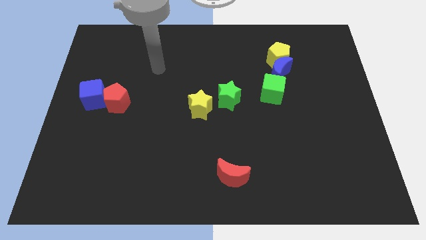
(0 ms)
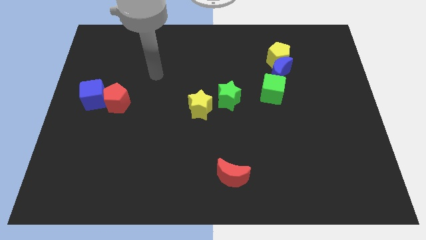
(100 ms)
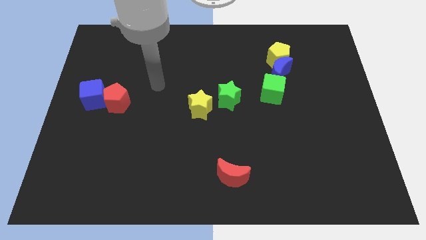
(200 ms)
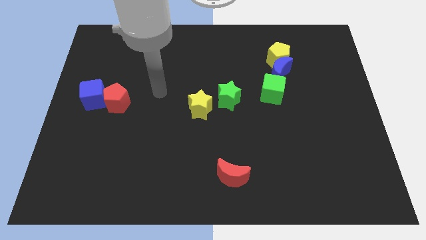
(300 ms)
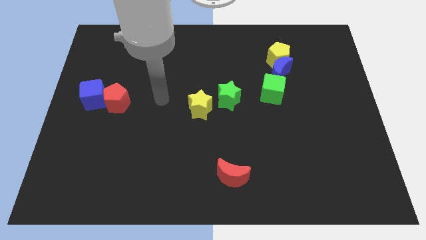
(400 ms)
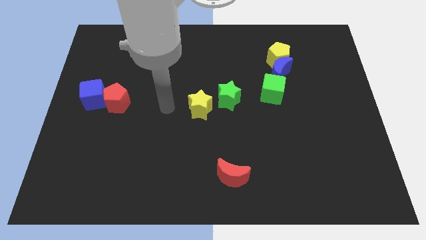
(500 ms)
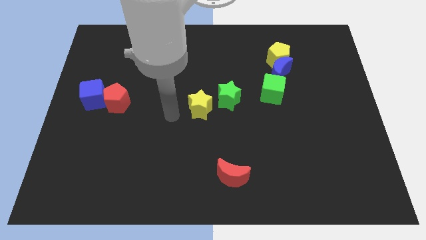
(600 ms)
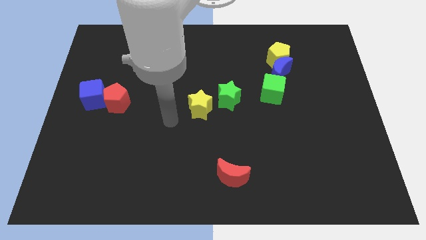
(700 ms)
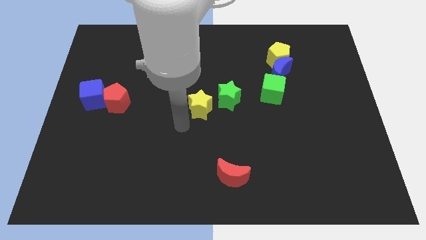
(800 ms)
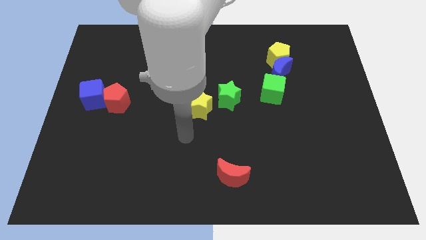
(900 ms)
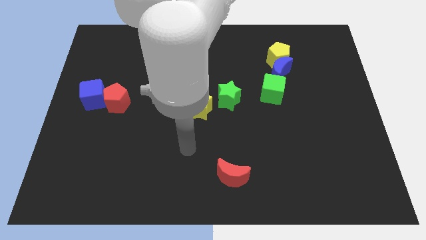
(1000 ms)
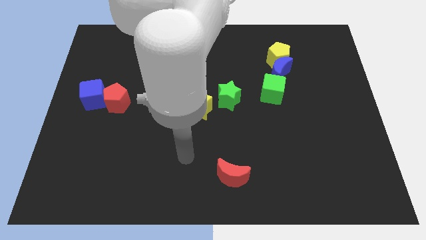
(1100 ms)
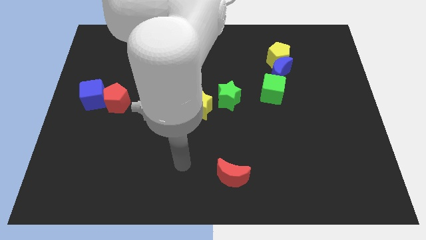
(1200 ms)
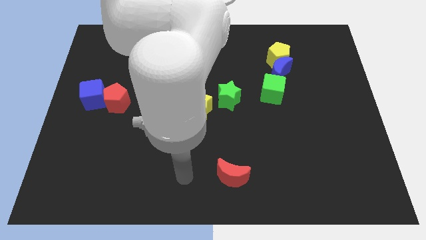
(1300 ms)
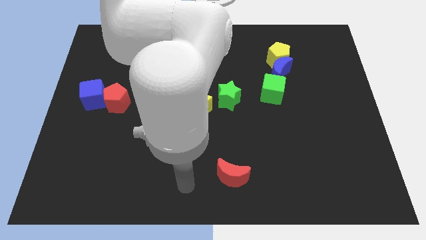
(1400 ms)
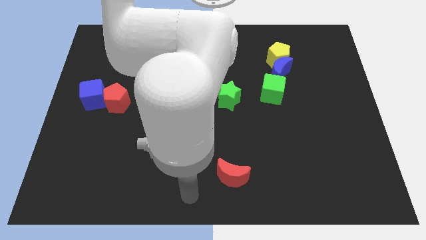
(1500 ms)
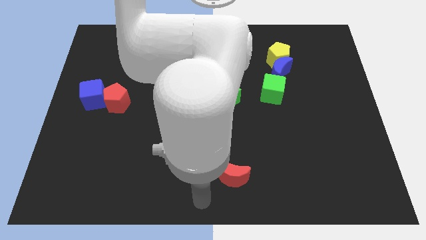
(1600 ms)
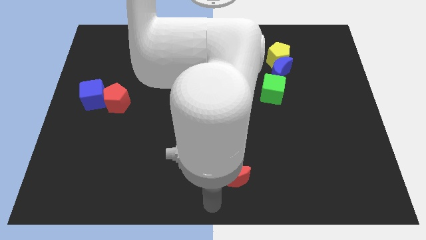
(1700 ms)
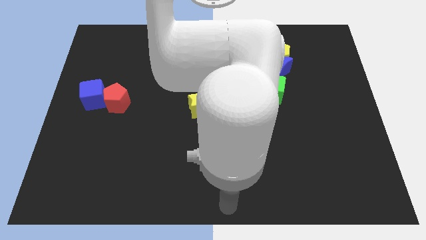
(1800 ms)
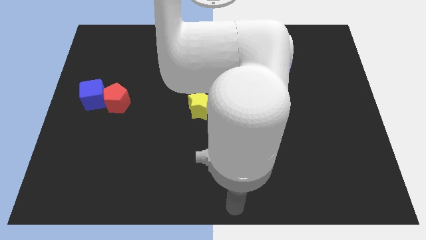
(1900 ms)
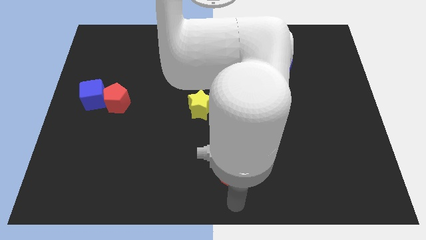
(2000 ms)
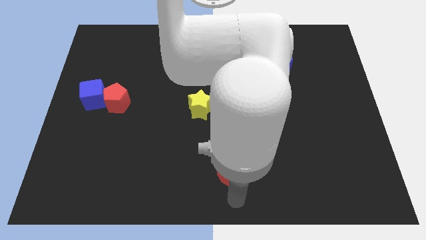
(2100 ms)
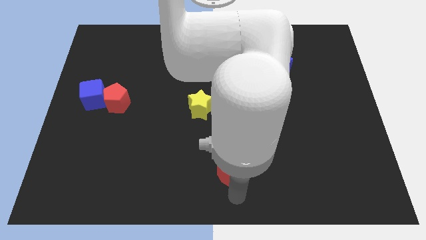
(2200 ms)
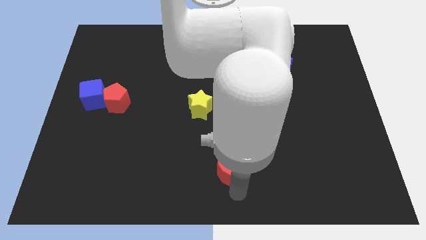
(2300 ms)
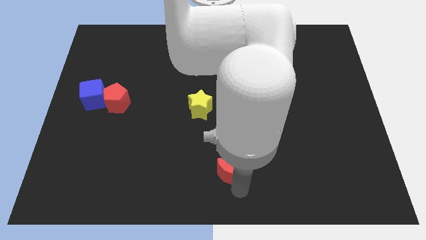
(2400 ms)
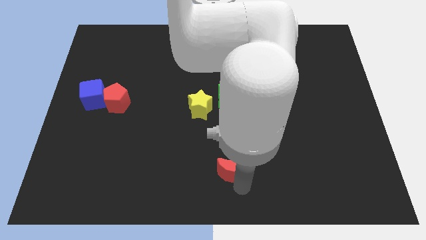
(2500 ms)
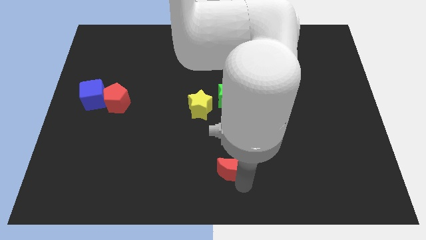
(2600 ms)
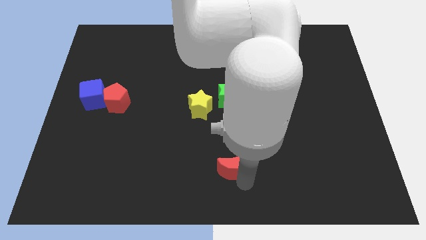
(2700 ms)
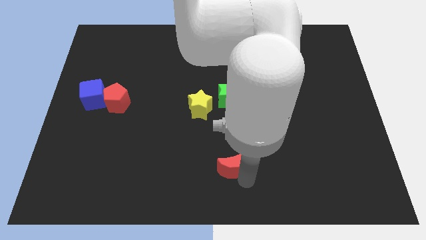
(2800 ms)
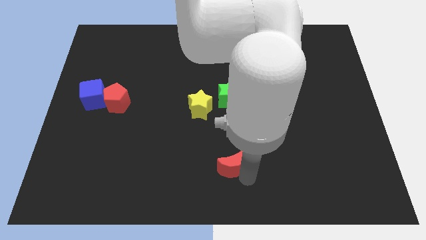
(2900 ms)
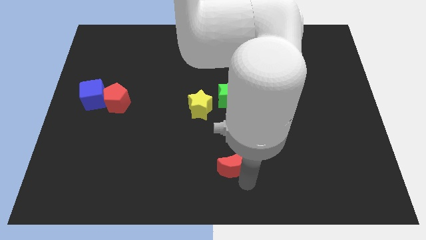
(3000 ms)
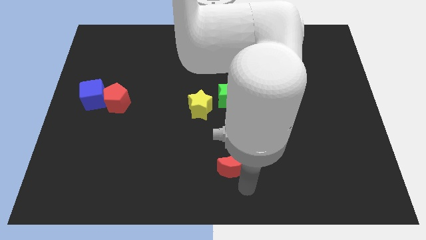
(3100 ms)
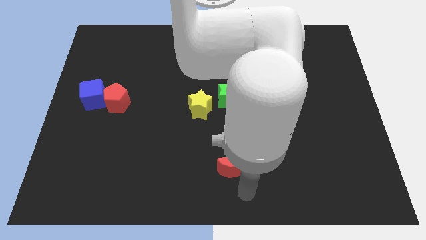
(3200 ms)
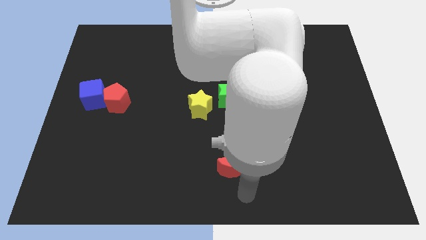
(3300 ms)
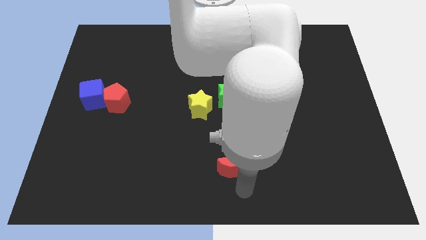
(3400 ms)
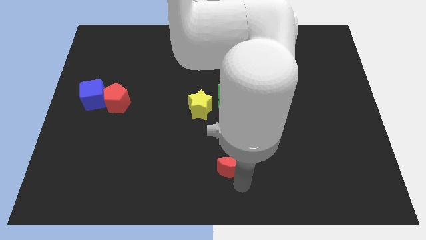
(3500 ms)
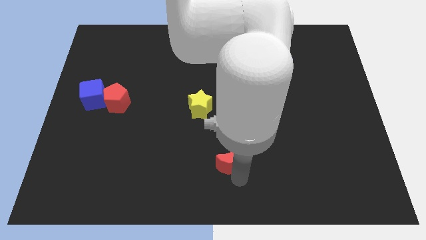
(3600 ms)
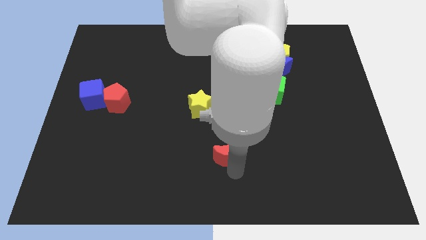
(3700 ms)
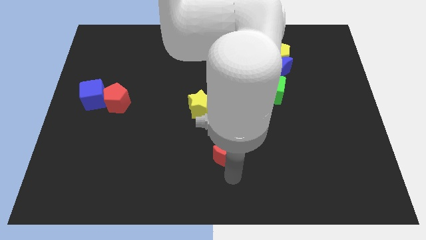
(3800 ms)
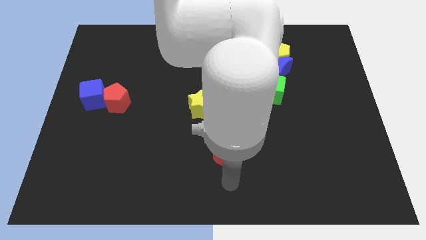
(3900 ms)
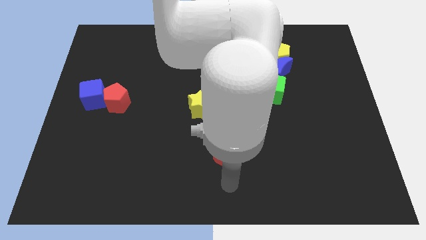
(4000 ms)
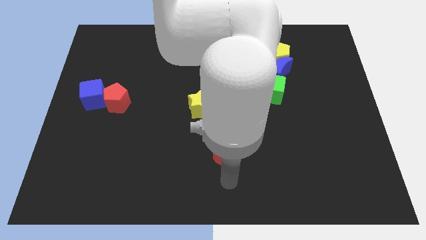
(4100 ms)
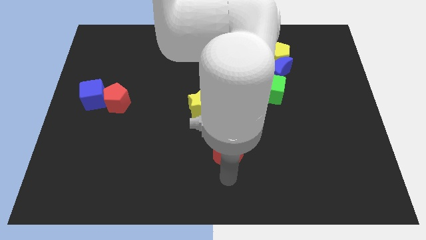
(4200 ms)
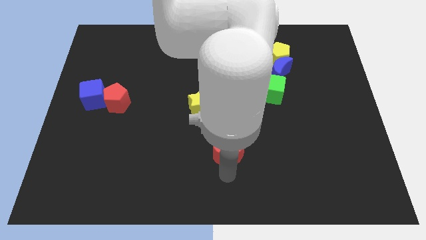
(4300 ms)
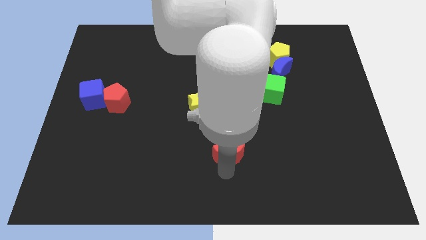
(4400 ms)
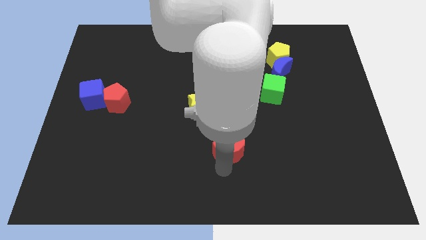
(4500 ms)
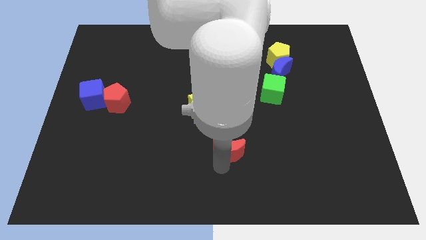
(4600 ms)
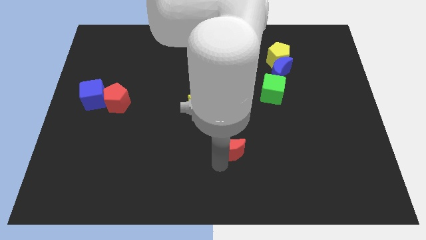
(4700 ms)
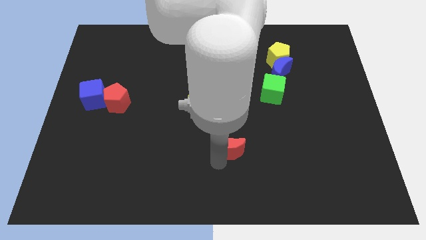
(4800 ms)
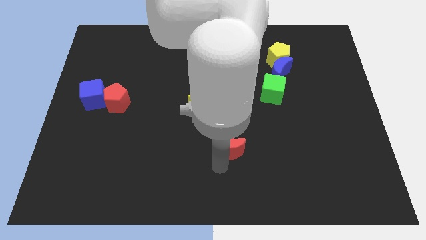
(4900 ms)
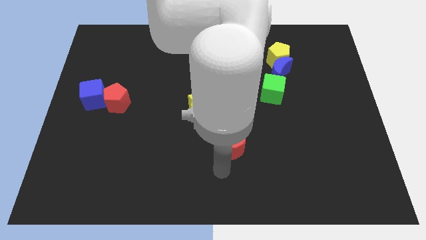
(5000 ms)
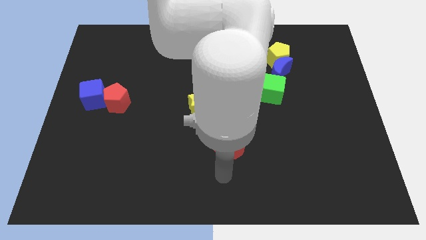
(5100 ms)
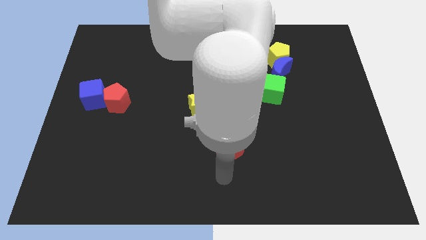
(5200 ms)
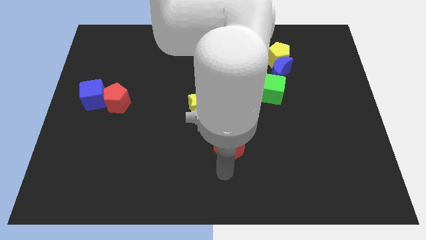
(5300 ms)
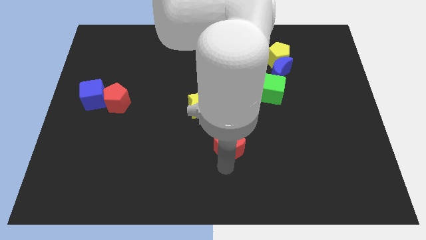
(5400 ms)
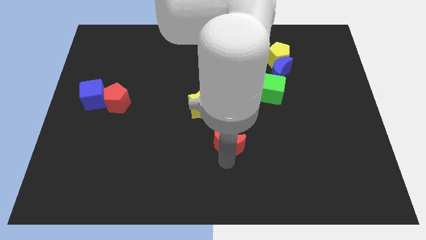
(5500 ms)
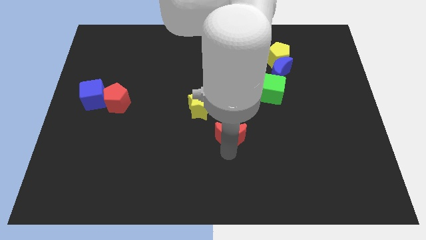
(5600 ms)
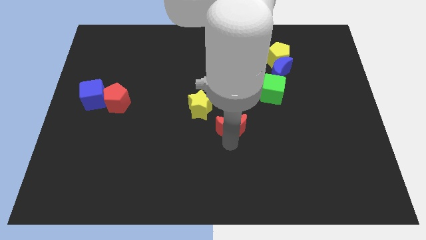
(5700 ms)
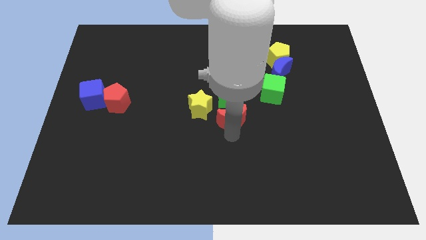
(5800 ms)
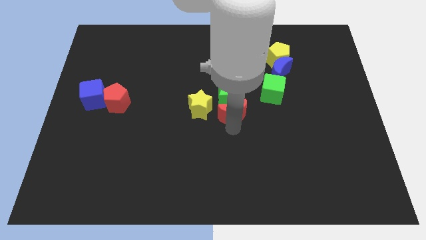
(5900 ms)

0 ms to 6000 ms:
move the red moon next to the green star

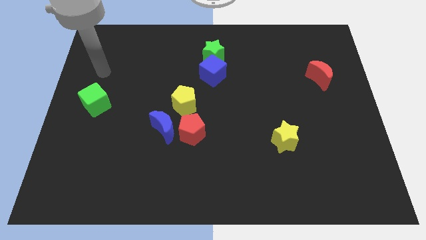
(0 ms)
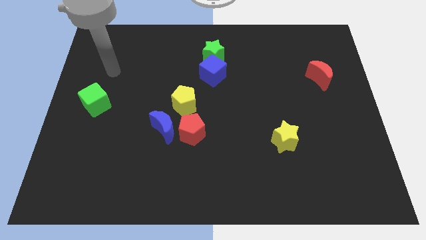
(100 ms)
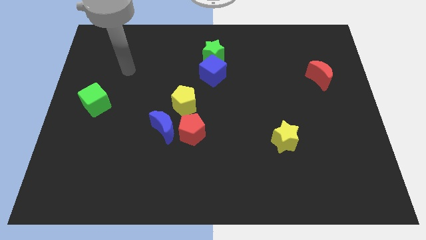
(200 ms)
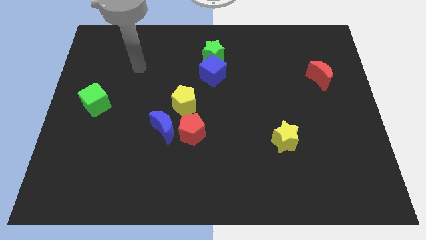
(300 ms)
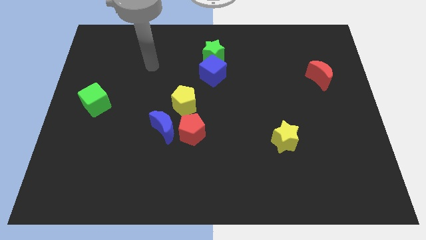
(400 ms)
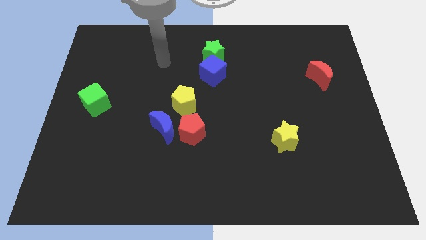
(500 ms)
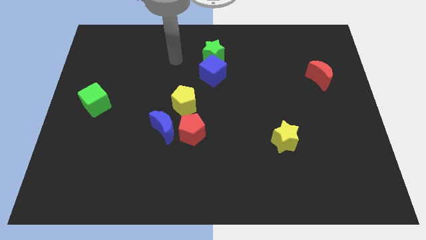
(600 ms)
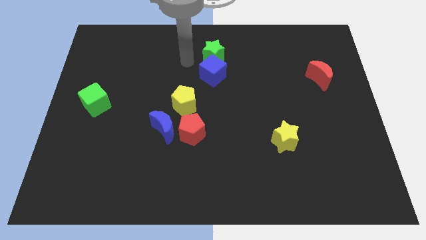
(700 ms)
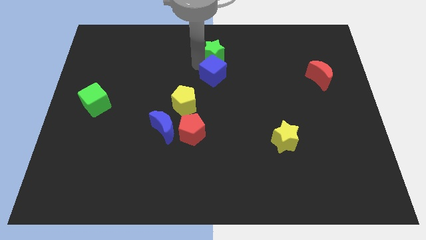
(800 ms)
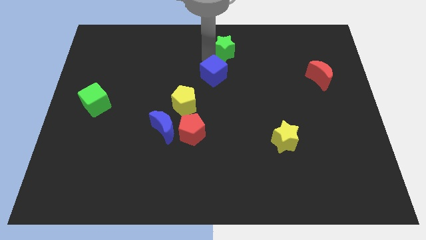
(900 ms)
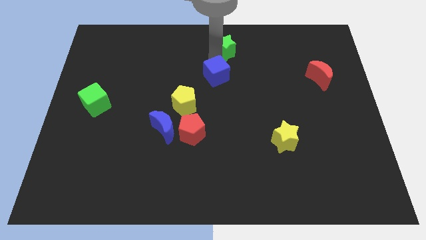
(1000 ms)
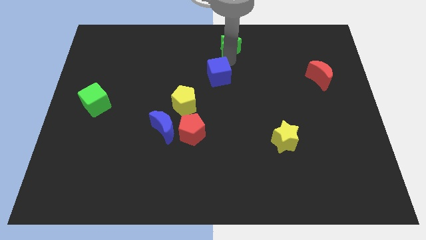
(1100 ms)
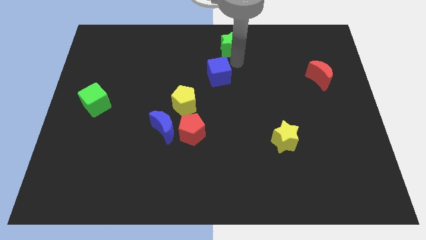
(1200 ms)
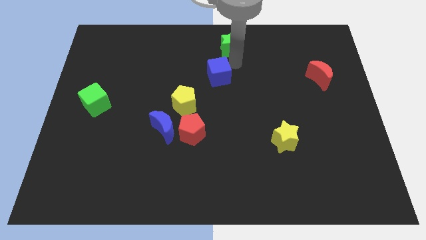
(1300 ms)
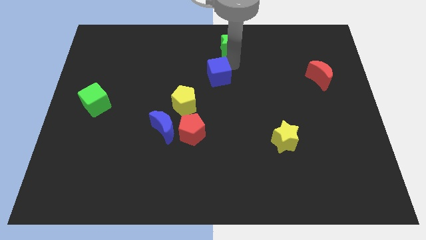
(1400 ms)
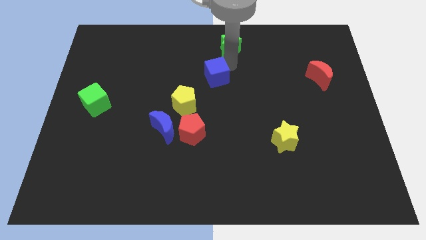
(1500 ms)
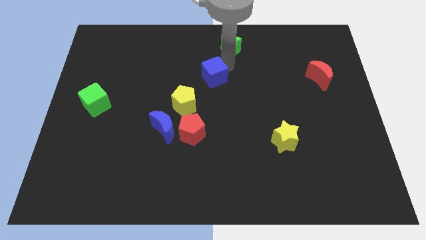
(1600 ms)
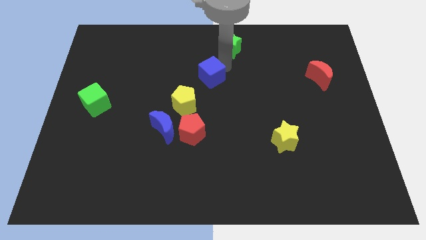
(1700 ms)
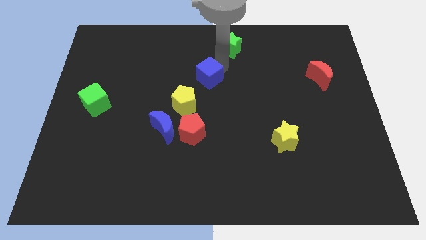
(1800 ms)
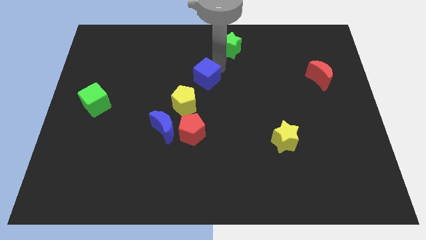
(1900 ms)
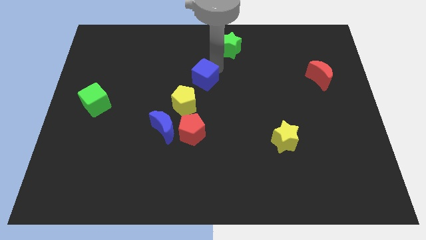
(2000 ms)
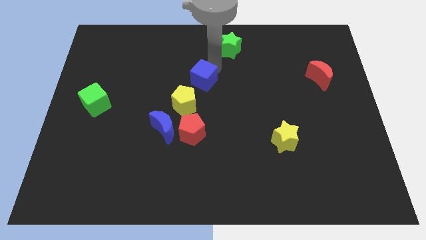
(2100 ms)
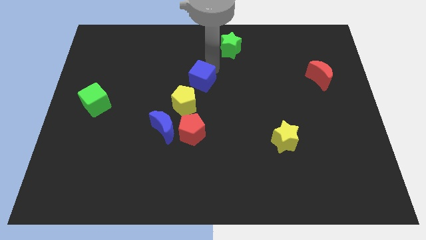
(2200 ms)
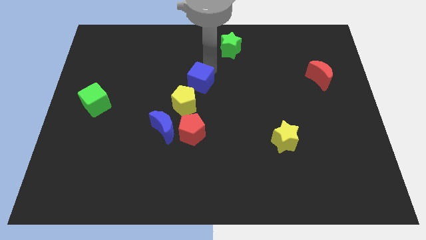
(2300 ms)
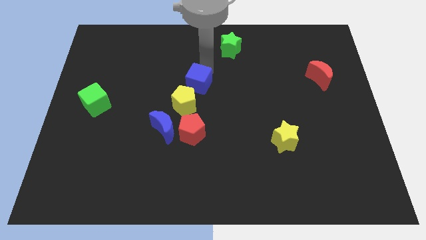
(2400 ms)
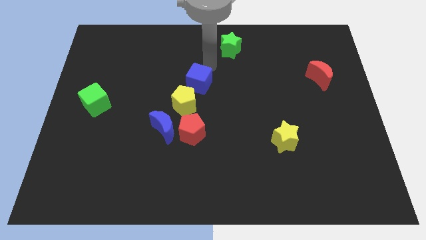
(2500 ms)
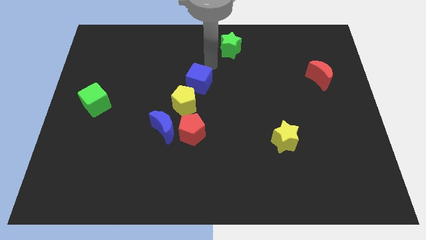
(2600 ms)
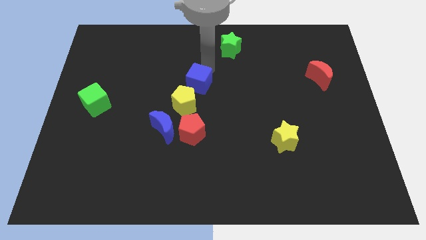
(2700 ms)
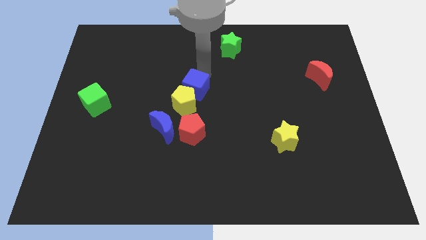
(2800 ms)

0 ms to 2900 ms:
put the blue cube to the yellow pentagon
